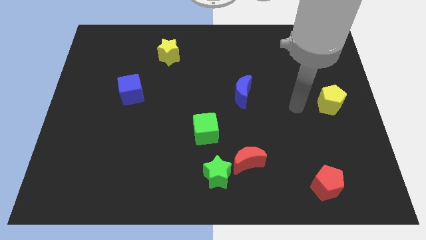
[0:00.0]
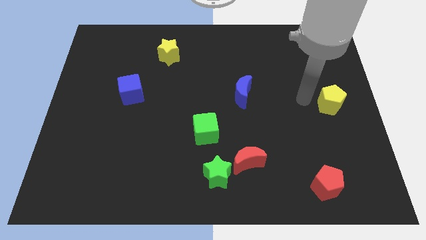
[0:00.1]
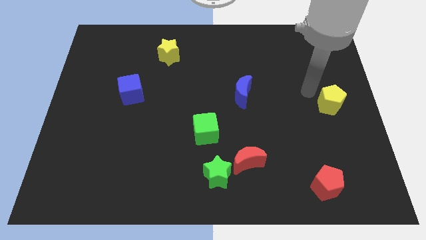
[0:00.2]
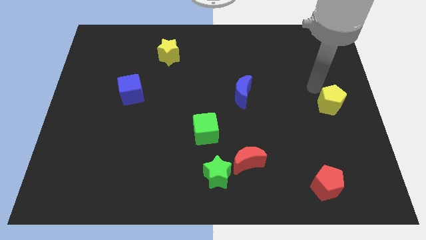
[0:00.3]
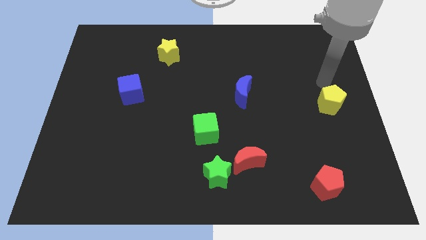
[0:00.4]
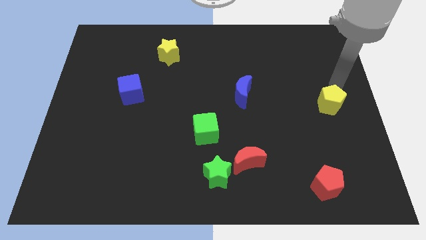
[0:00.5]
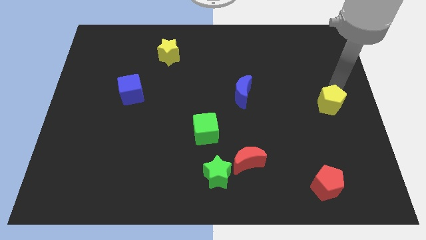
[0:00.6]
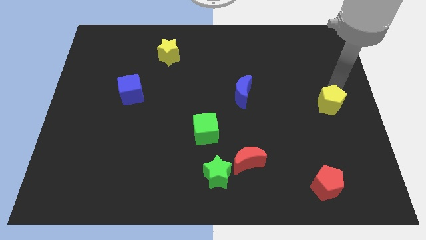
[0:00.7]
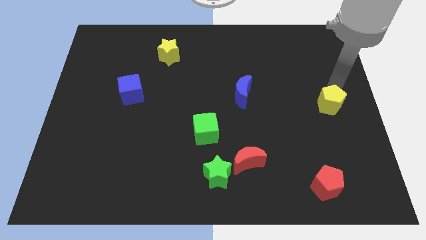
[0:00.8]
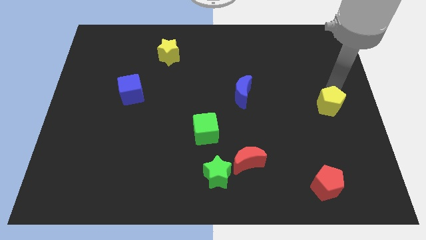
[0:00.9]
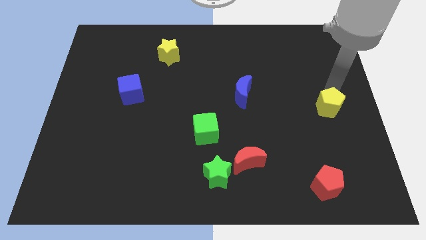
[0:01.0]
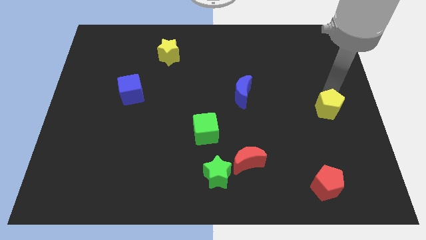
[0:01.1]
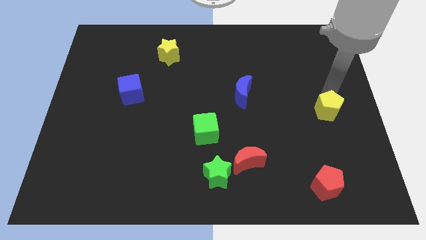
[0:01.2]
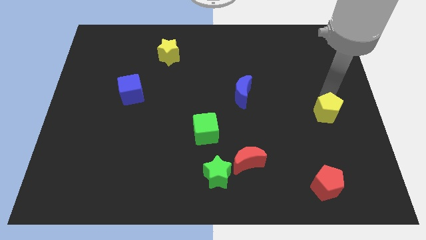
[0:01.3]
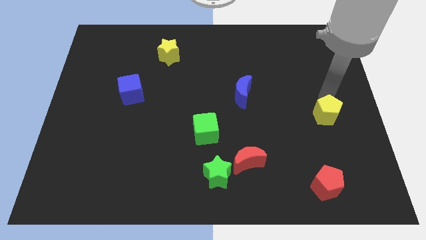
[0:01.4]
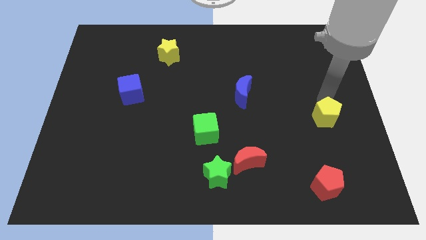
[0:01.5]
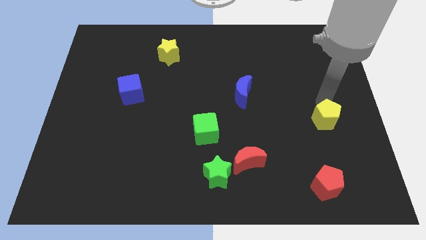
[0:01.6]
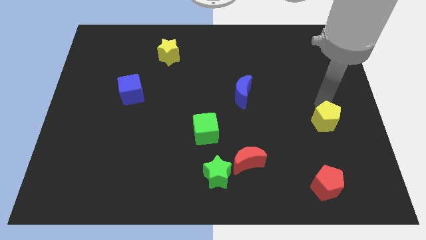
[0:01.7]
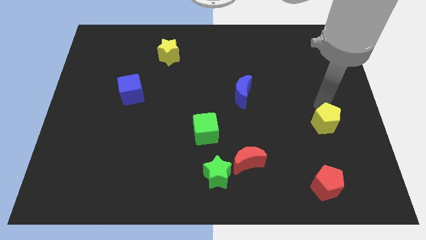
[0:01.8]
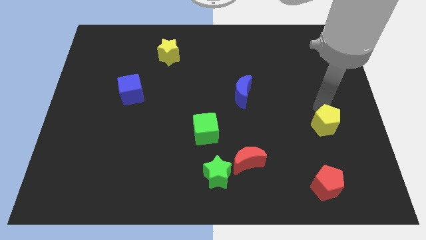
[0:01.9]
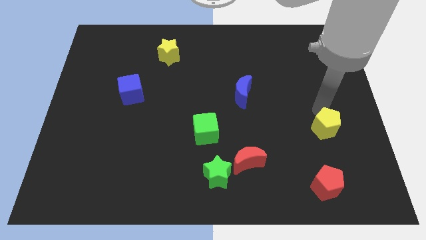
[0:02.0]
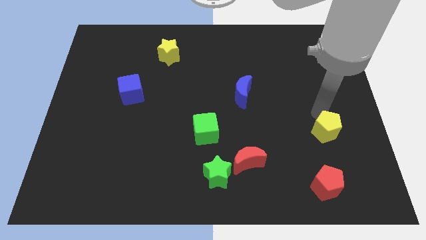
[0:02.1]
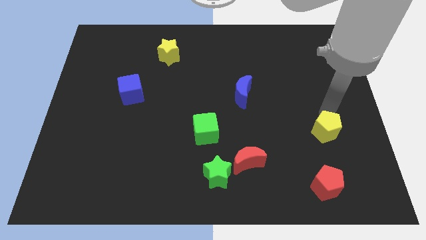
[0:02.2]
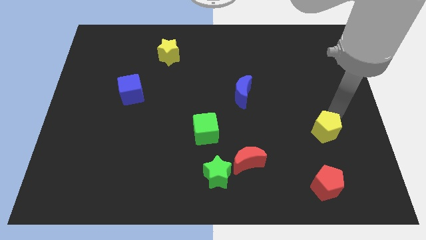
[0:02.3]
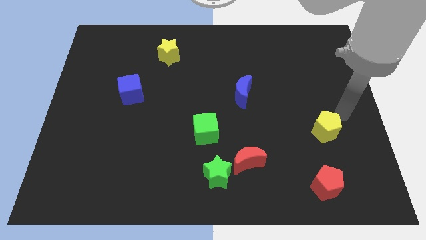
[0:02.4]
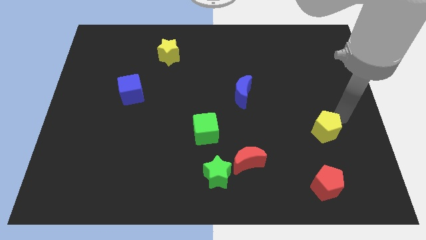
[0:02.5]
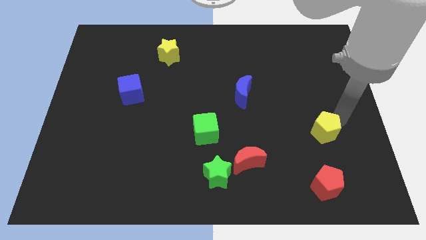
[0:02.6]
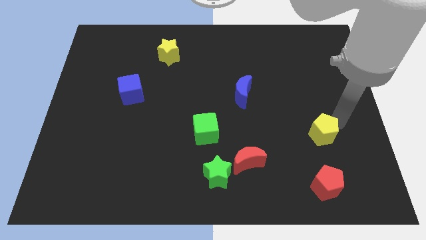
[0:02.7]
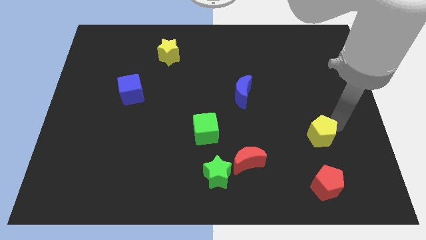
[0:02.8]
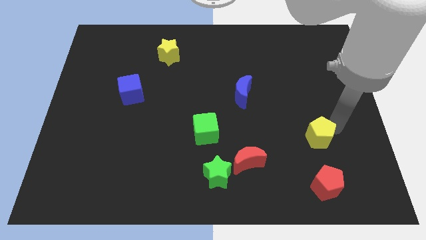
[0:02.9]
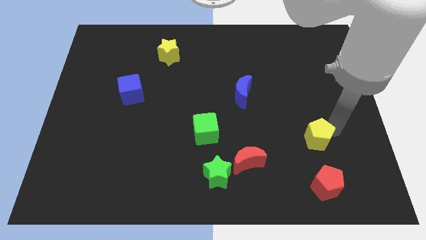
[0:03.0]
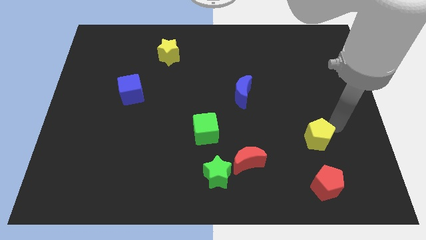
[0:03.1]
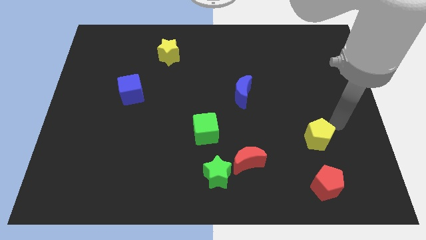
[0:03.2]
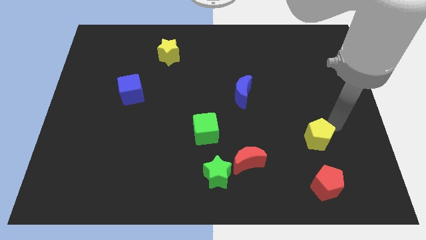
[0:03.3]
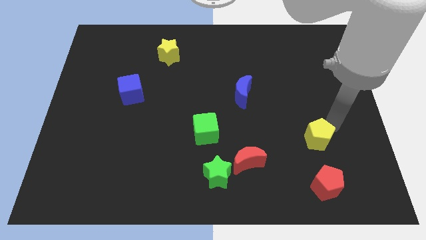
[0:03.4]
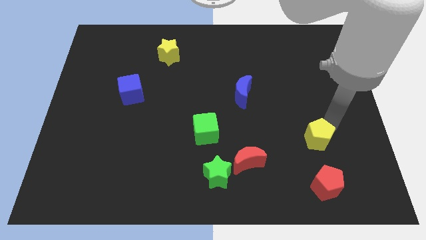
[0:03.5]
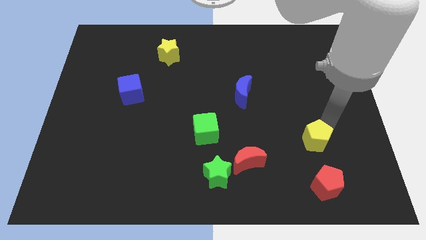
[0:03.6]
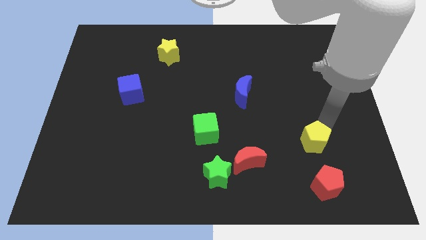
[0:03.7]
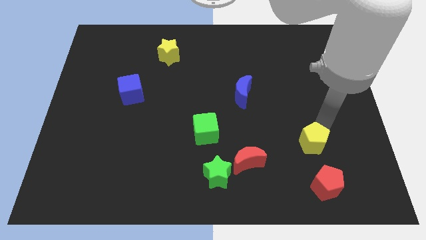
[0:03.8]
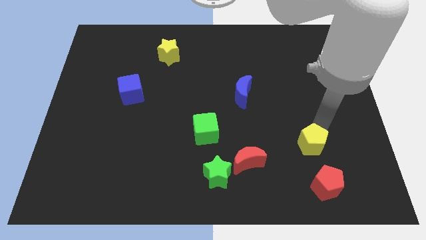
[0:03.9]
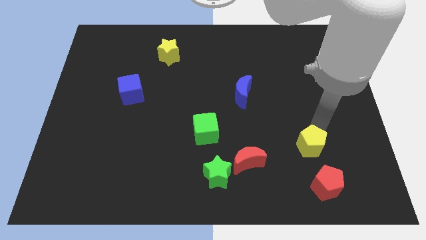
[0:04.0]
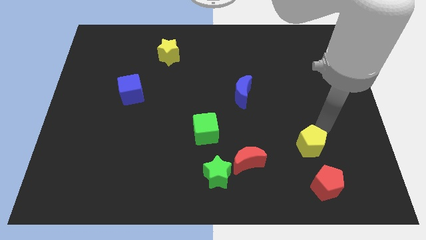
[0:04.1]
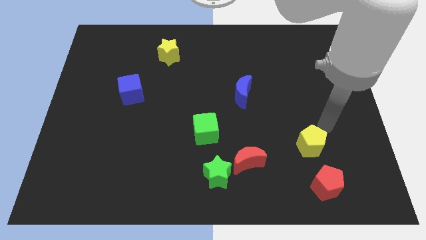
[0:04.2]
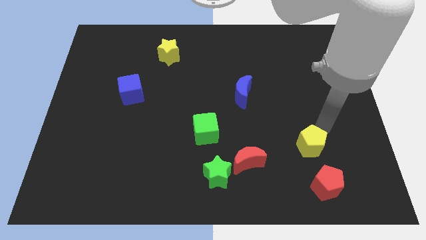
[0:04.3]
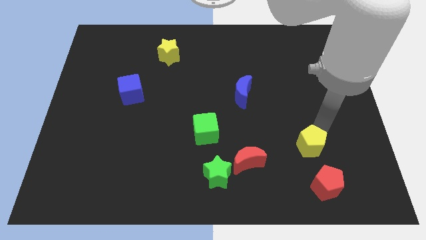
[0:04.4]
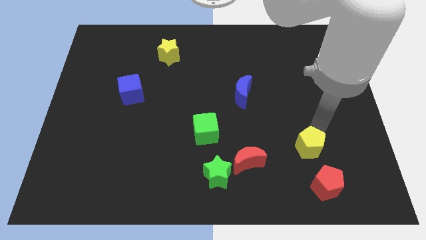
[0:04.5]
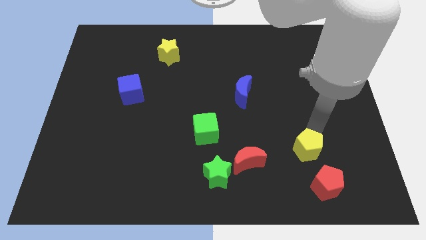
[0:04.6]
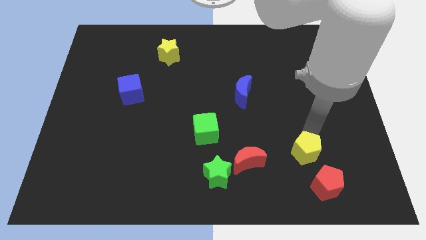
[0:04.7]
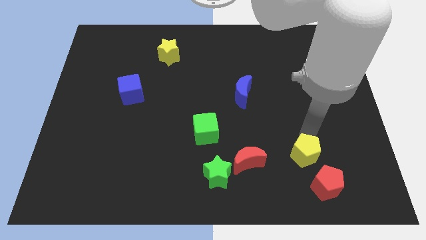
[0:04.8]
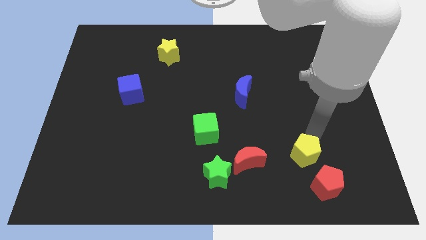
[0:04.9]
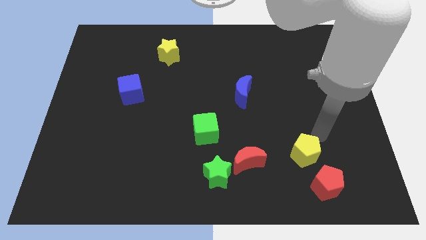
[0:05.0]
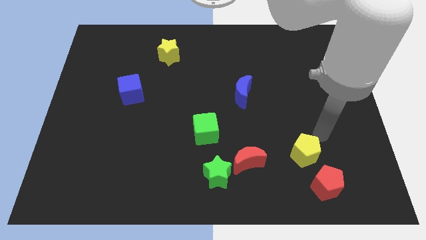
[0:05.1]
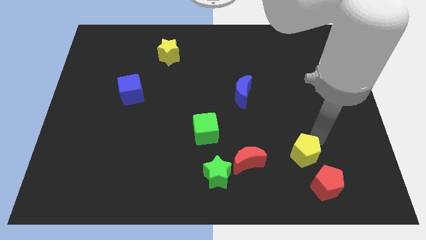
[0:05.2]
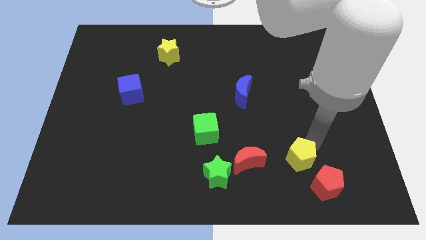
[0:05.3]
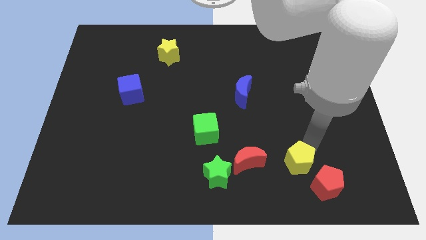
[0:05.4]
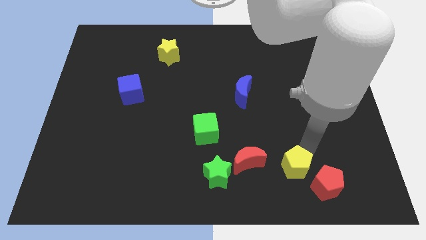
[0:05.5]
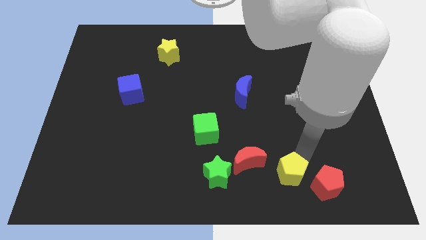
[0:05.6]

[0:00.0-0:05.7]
push the yellow pentagon to the bottom right side of the red moon

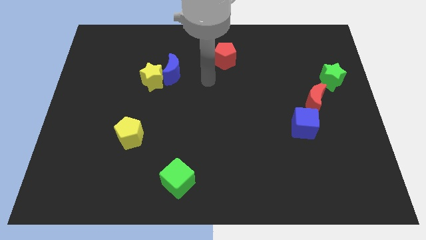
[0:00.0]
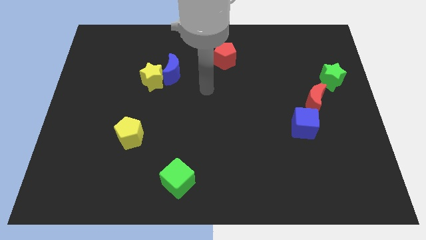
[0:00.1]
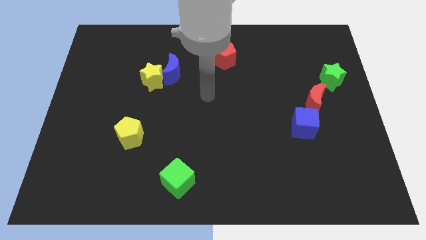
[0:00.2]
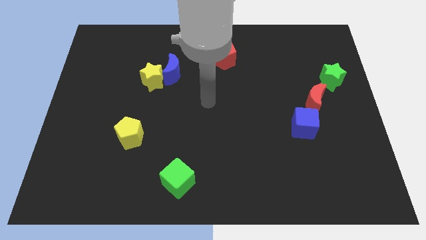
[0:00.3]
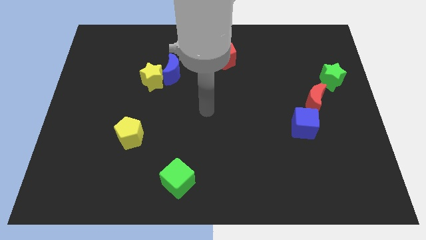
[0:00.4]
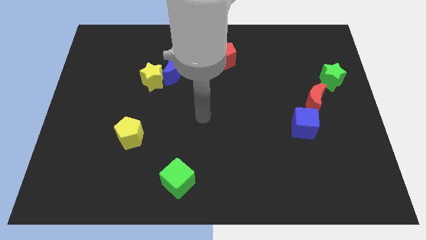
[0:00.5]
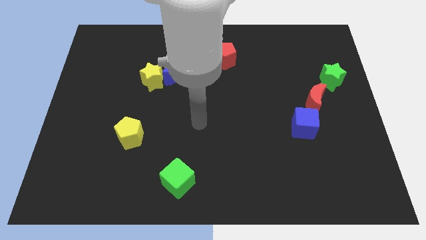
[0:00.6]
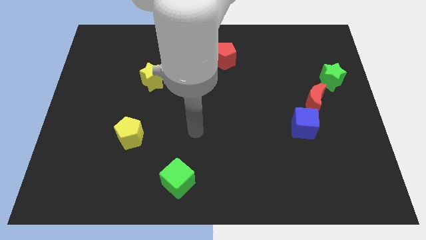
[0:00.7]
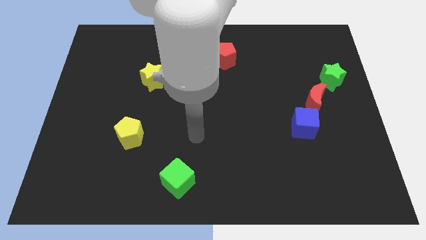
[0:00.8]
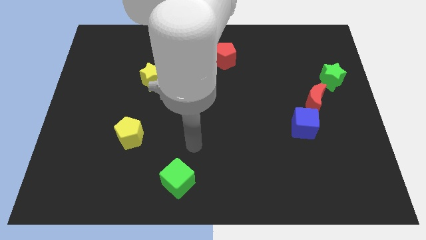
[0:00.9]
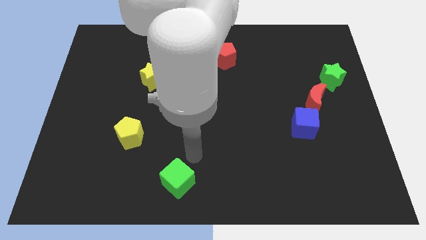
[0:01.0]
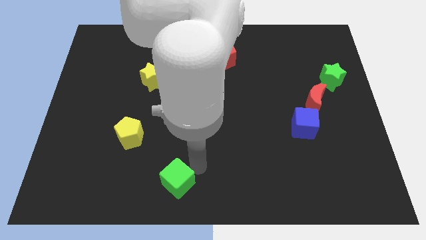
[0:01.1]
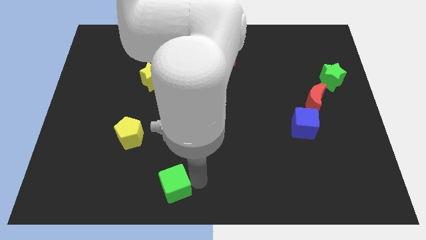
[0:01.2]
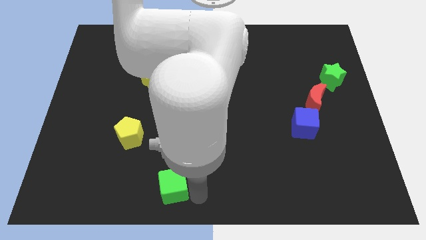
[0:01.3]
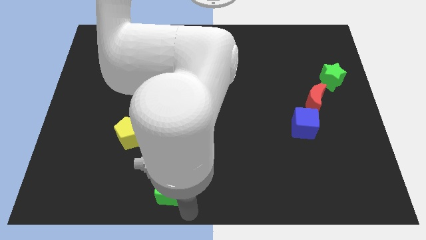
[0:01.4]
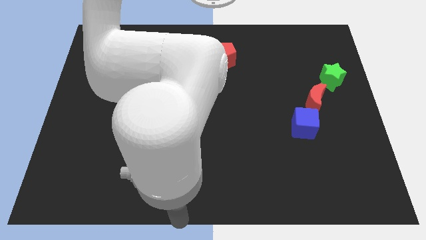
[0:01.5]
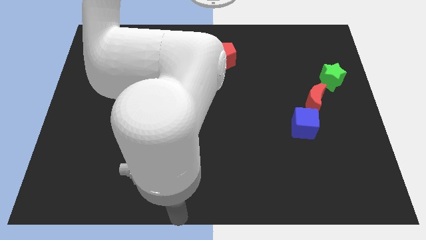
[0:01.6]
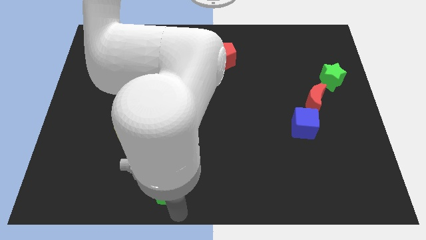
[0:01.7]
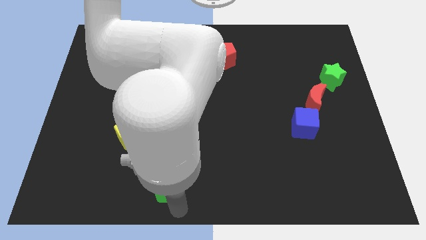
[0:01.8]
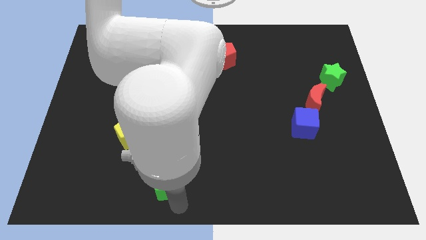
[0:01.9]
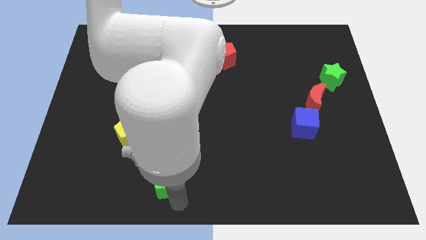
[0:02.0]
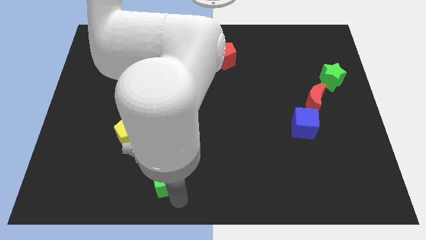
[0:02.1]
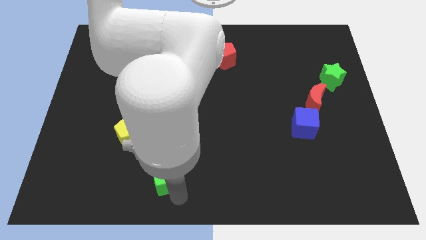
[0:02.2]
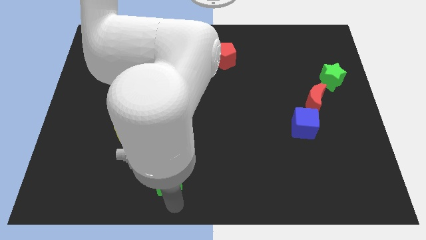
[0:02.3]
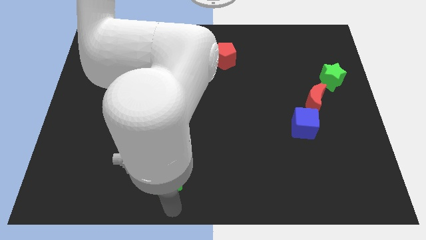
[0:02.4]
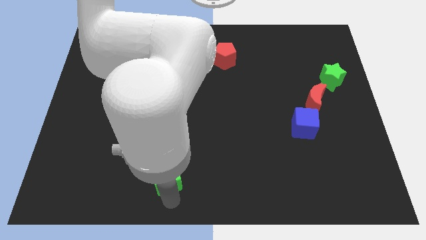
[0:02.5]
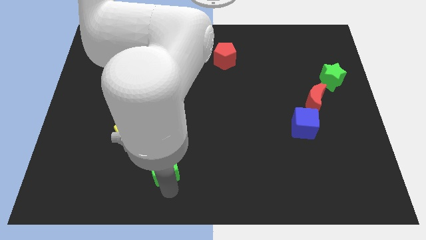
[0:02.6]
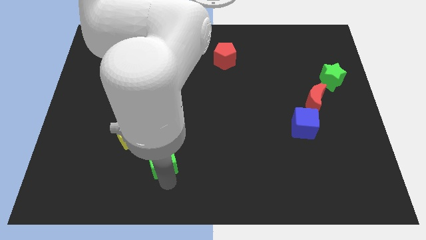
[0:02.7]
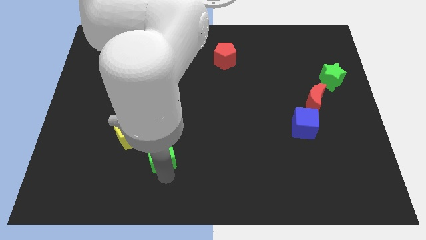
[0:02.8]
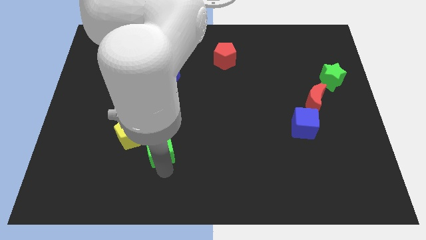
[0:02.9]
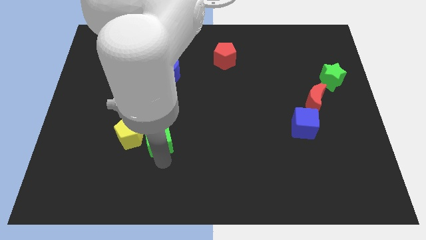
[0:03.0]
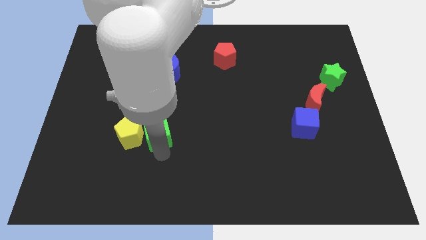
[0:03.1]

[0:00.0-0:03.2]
slide the green cube to the top right of the yellow pentagon
